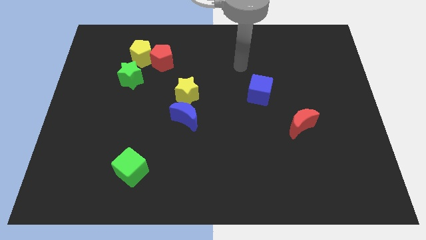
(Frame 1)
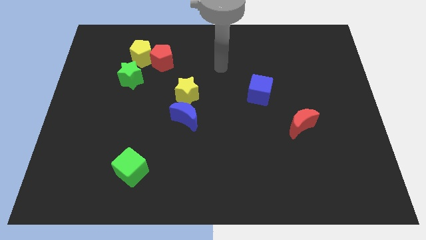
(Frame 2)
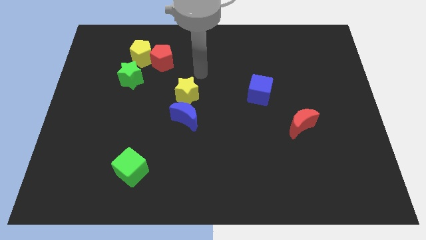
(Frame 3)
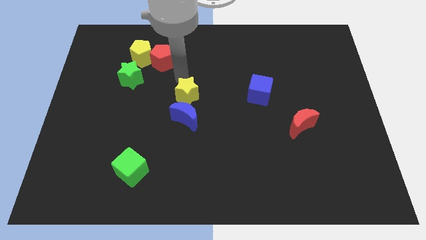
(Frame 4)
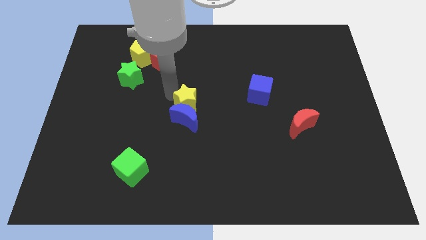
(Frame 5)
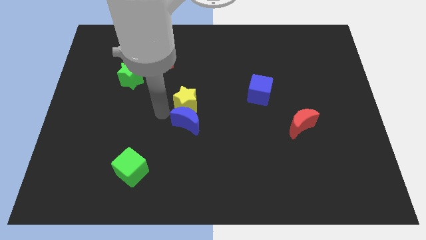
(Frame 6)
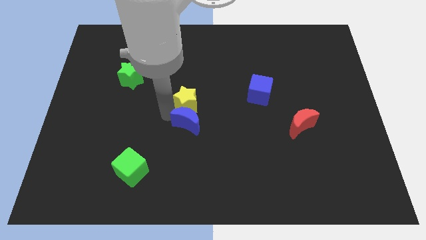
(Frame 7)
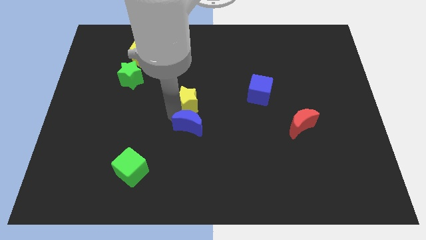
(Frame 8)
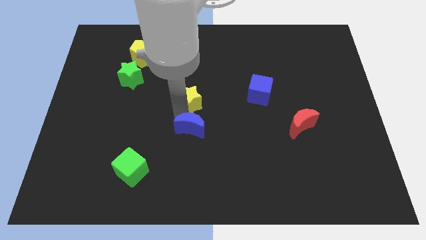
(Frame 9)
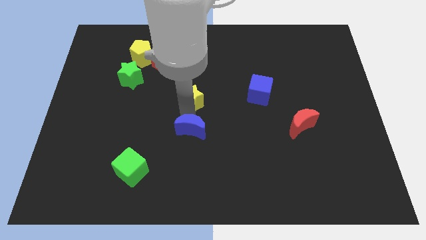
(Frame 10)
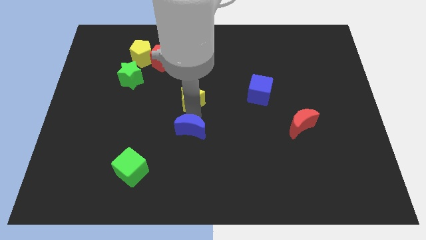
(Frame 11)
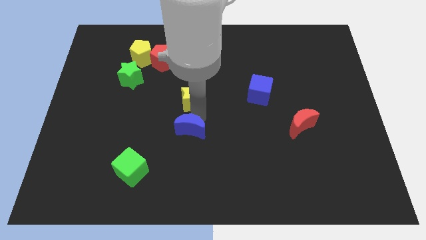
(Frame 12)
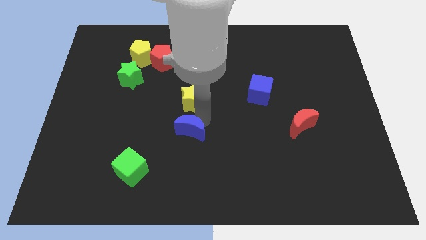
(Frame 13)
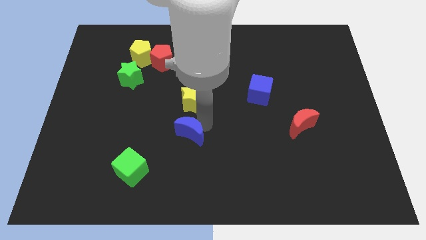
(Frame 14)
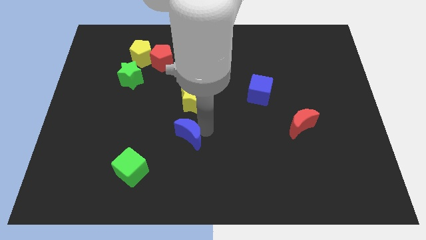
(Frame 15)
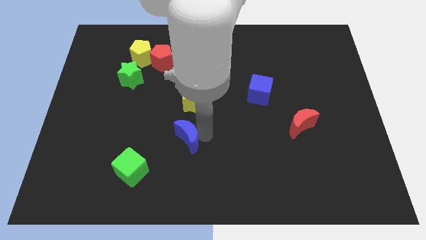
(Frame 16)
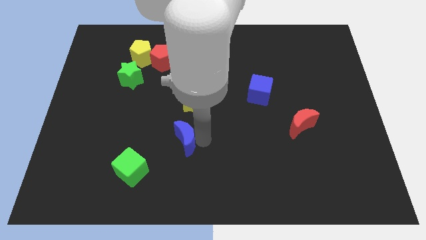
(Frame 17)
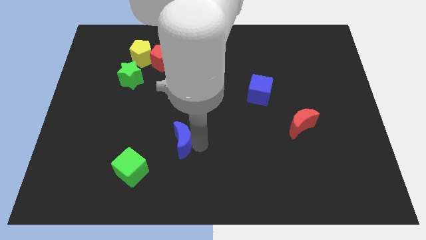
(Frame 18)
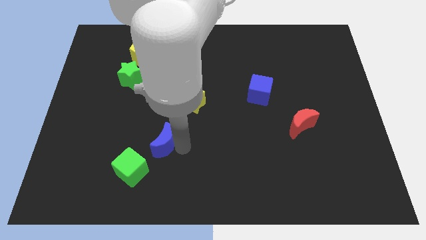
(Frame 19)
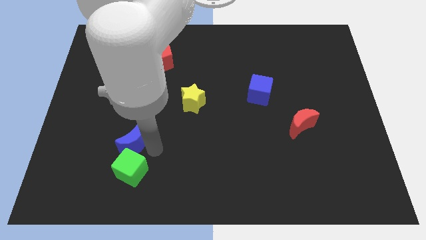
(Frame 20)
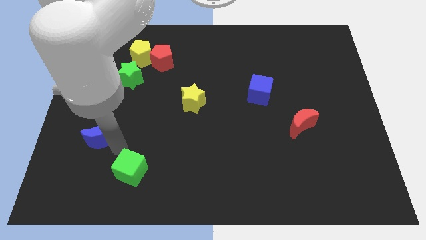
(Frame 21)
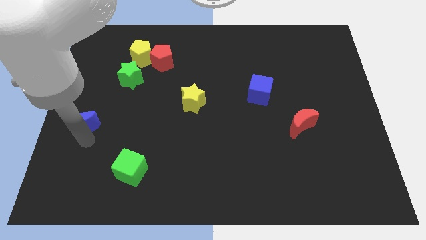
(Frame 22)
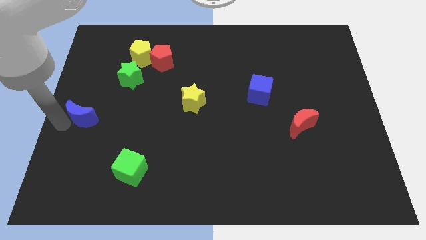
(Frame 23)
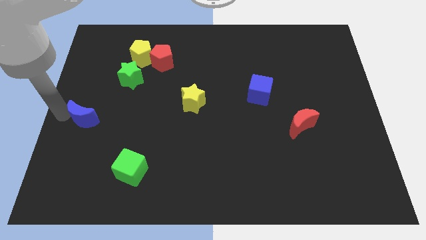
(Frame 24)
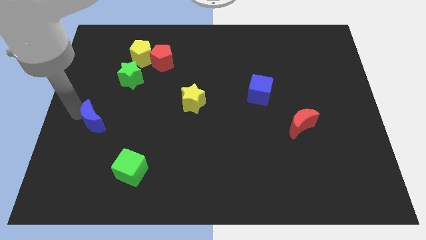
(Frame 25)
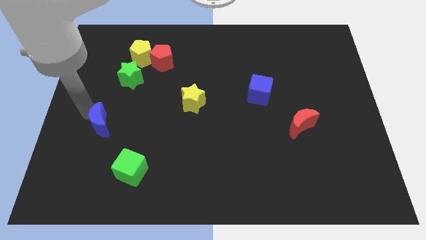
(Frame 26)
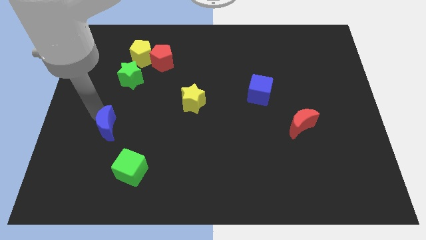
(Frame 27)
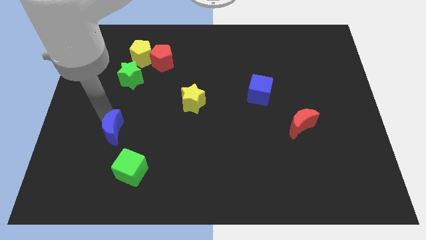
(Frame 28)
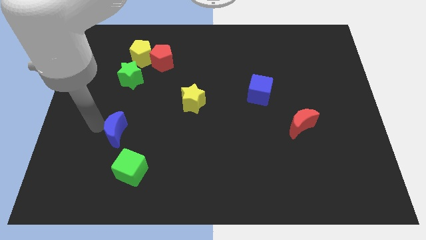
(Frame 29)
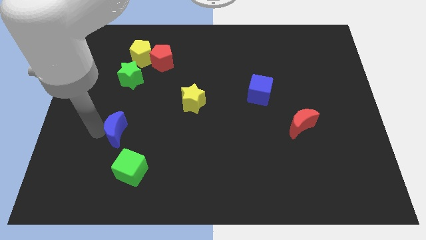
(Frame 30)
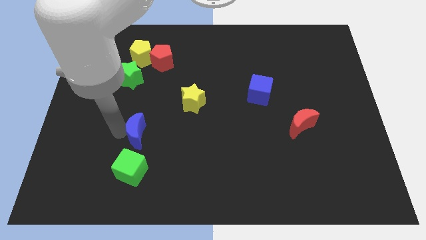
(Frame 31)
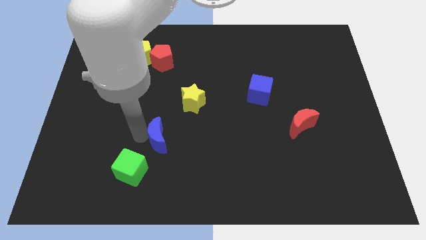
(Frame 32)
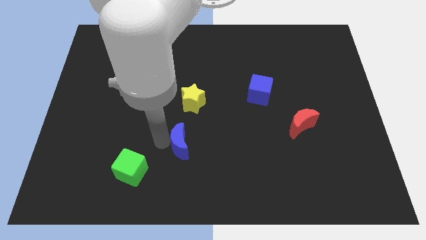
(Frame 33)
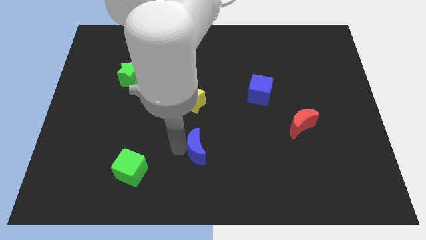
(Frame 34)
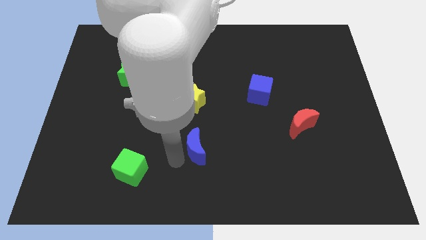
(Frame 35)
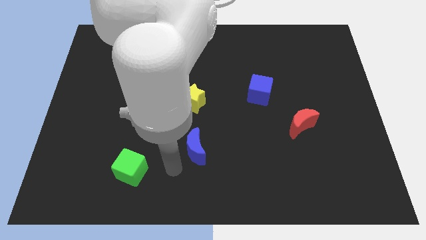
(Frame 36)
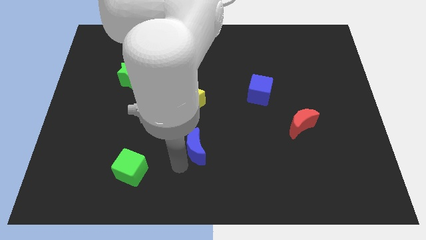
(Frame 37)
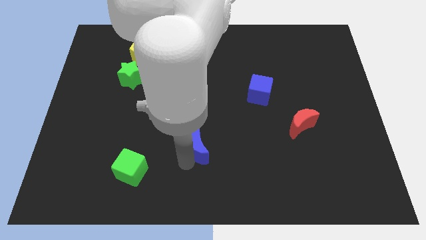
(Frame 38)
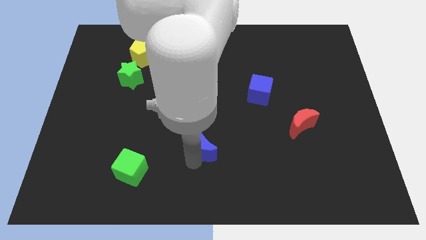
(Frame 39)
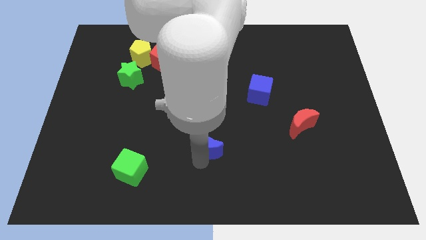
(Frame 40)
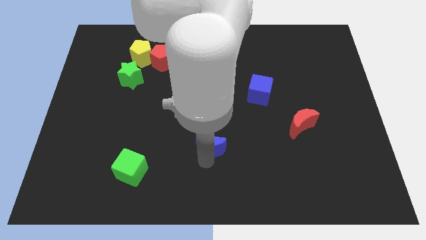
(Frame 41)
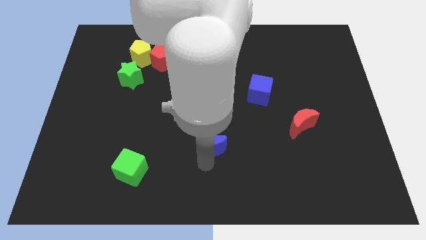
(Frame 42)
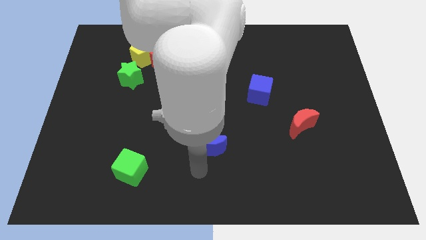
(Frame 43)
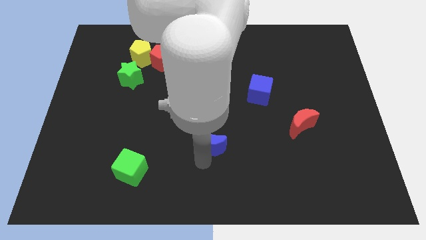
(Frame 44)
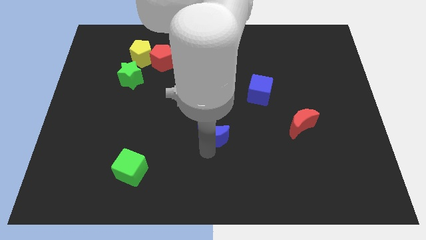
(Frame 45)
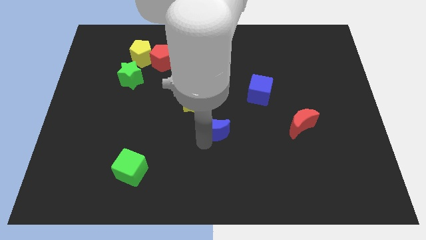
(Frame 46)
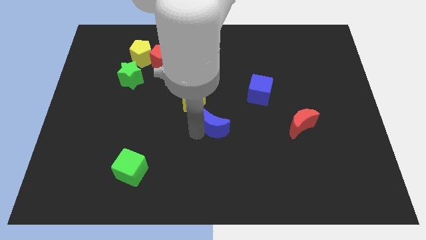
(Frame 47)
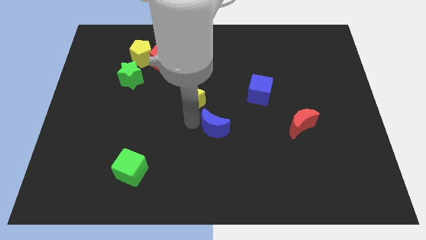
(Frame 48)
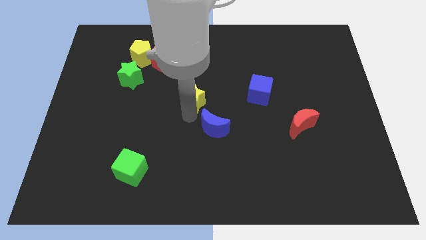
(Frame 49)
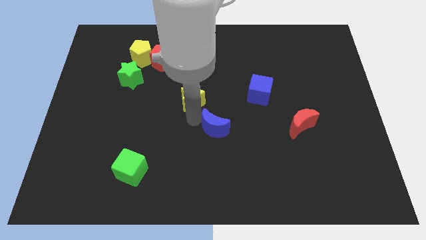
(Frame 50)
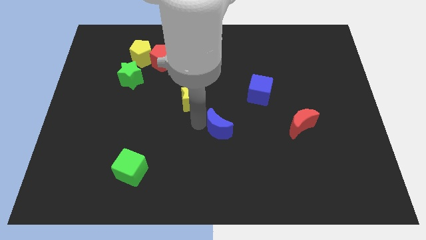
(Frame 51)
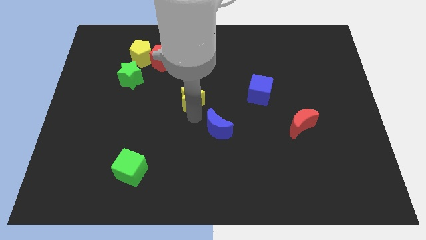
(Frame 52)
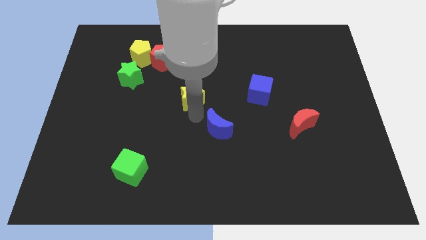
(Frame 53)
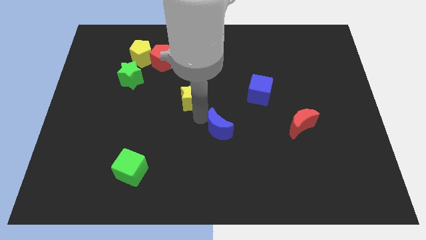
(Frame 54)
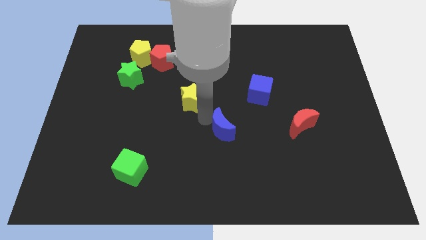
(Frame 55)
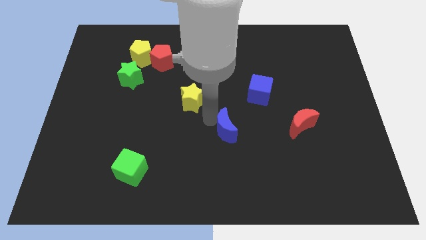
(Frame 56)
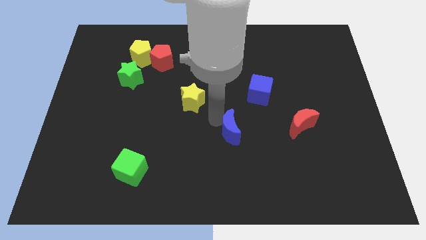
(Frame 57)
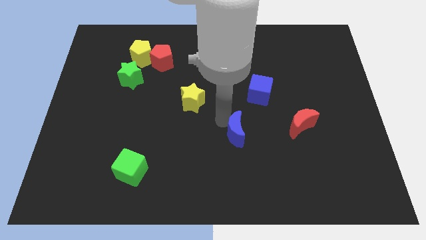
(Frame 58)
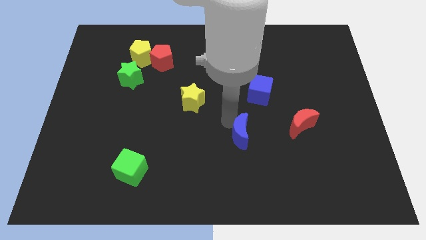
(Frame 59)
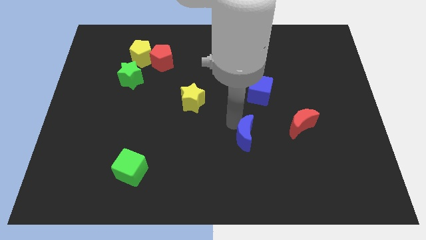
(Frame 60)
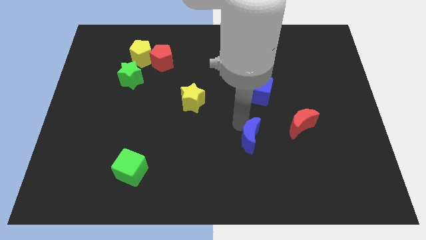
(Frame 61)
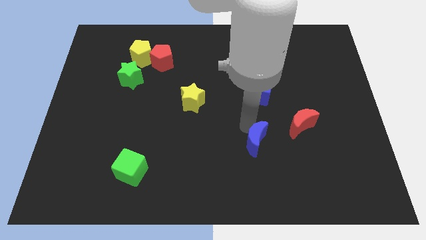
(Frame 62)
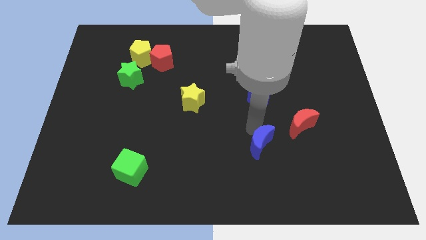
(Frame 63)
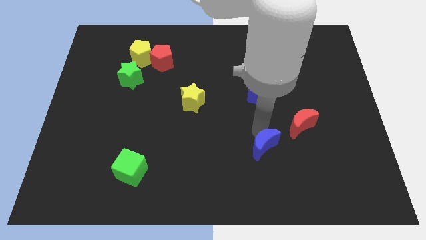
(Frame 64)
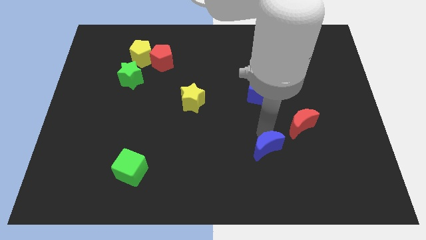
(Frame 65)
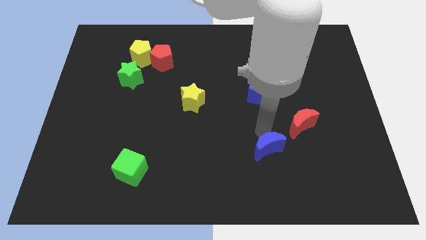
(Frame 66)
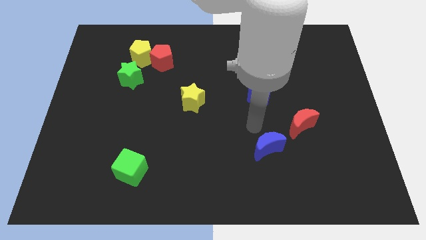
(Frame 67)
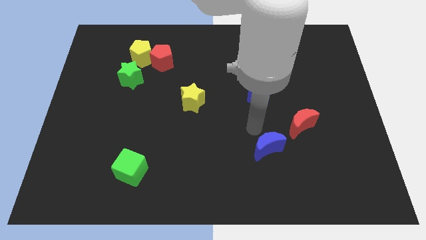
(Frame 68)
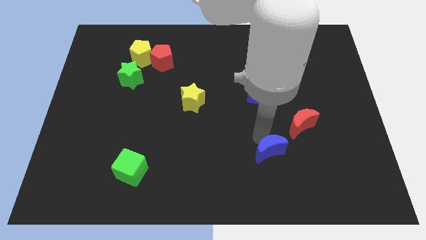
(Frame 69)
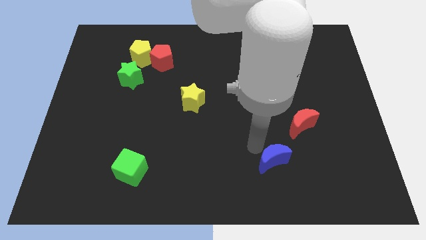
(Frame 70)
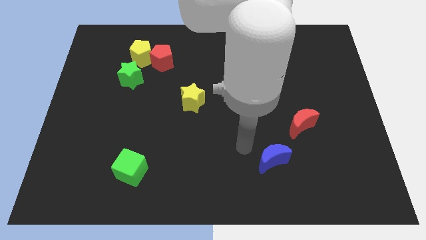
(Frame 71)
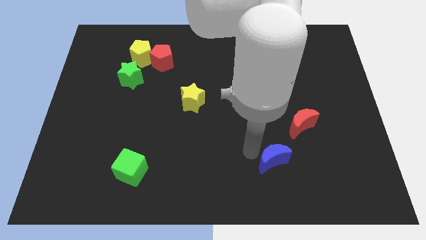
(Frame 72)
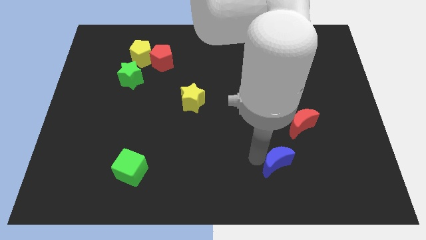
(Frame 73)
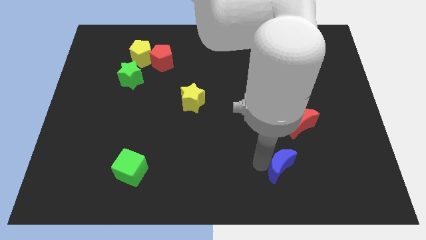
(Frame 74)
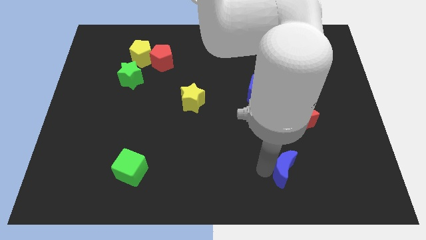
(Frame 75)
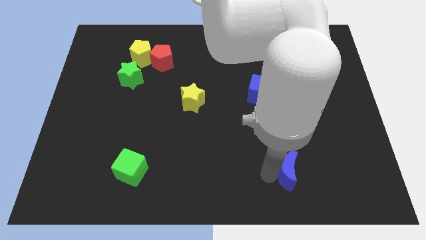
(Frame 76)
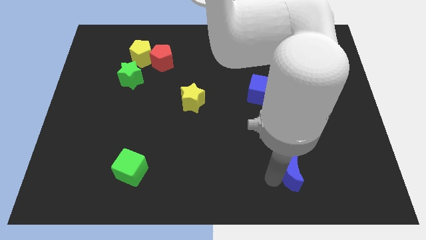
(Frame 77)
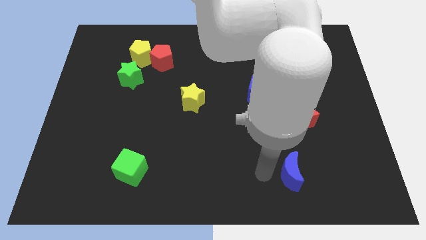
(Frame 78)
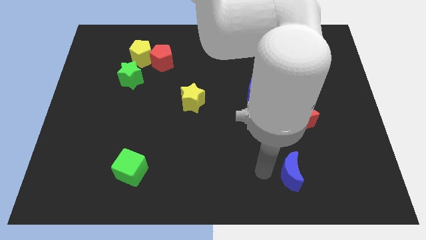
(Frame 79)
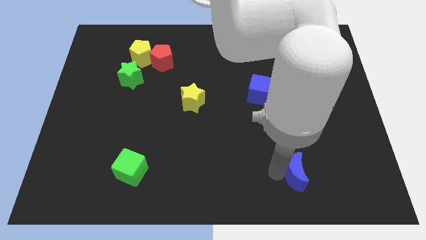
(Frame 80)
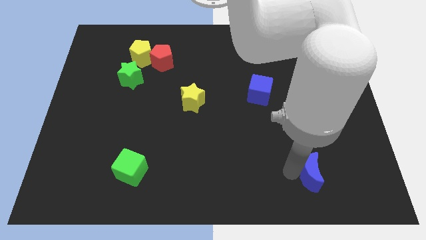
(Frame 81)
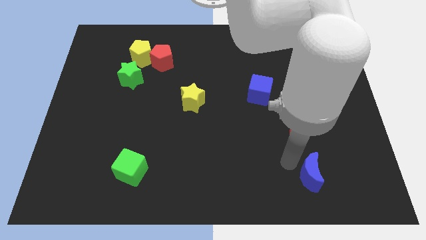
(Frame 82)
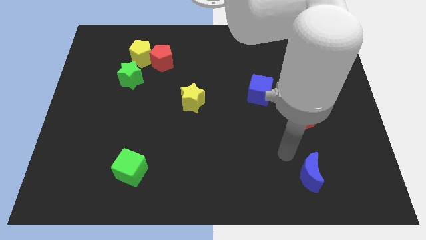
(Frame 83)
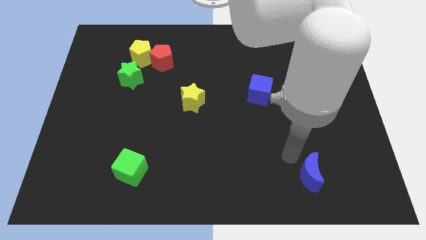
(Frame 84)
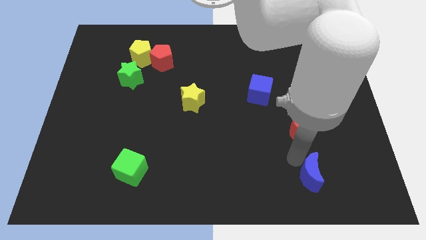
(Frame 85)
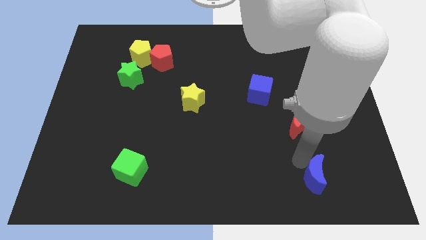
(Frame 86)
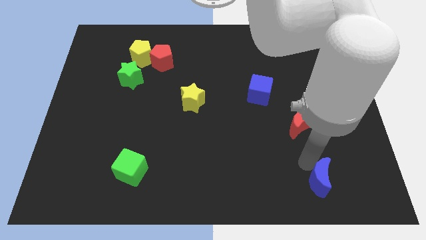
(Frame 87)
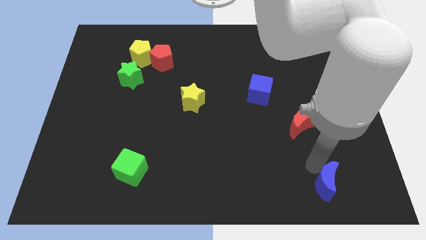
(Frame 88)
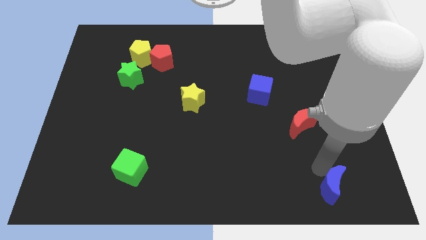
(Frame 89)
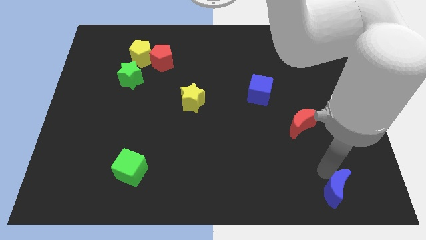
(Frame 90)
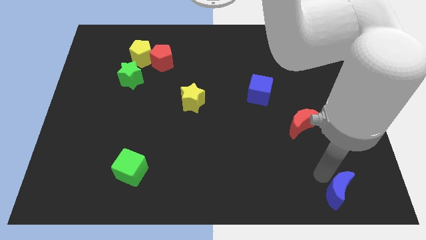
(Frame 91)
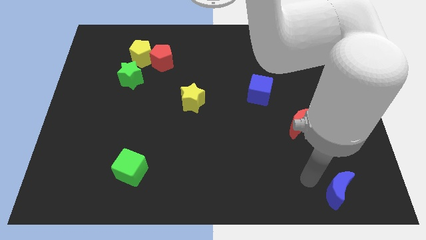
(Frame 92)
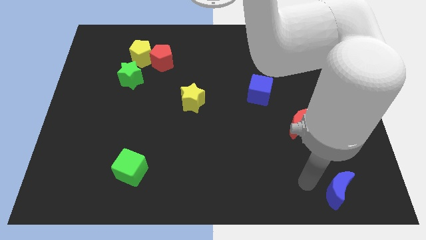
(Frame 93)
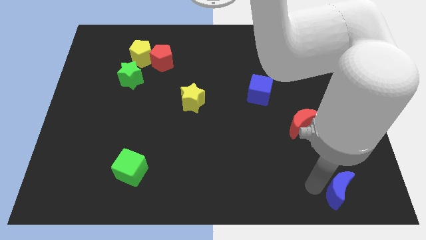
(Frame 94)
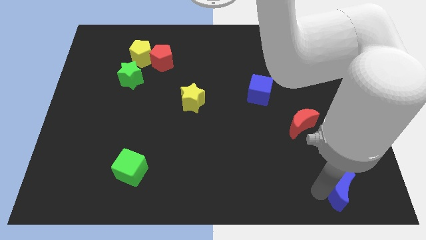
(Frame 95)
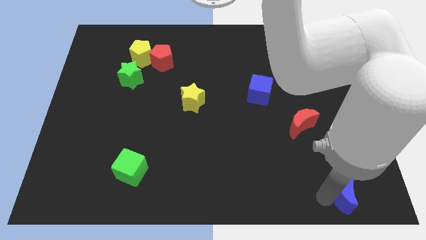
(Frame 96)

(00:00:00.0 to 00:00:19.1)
push the blue moon to the lower right corner
